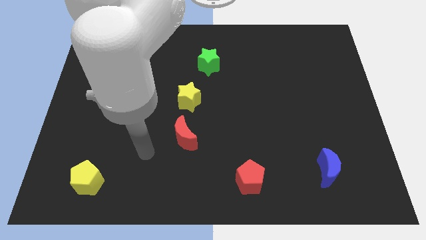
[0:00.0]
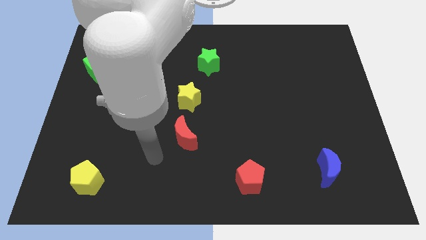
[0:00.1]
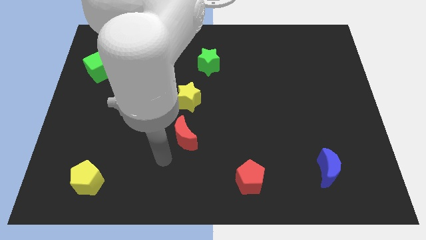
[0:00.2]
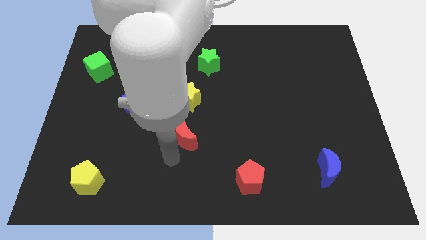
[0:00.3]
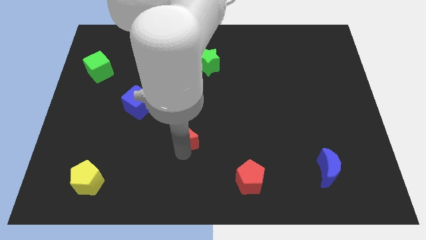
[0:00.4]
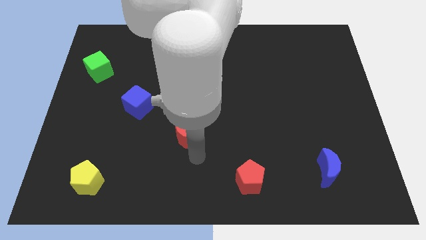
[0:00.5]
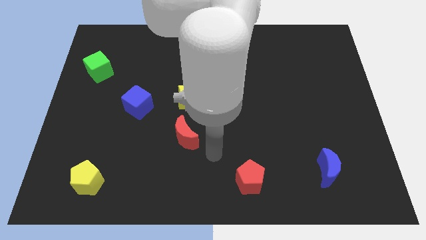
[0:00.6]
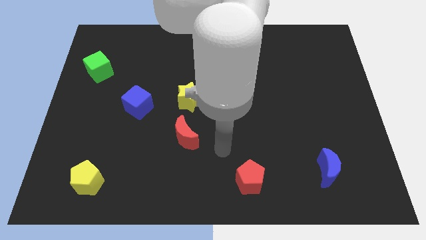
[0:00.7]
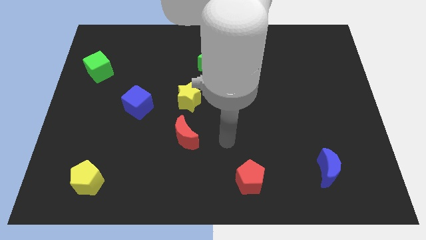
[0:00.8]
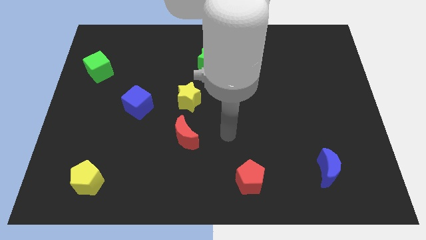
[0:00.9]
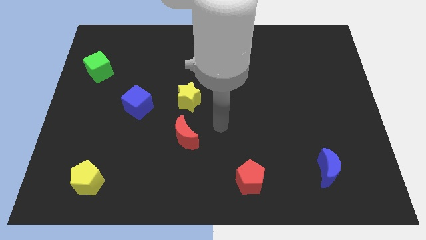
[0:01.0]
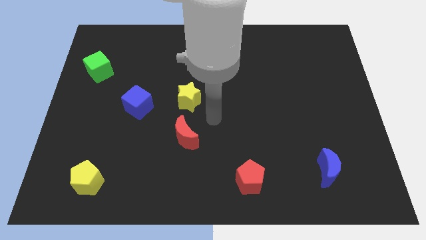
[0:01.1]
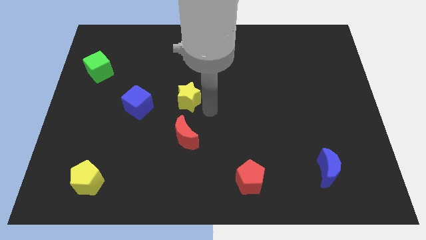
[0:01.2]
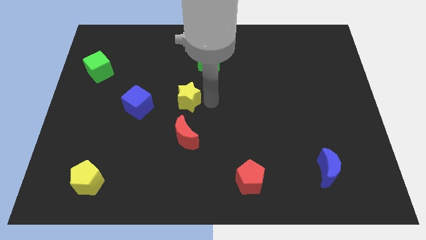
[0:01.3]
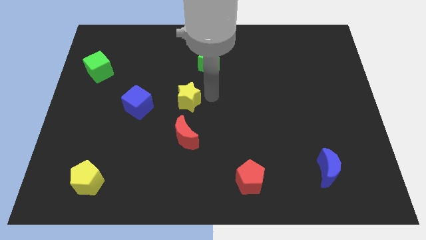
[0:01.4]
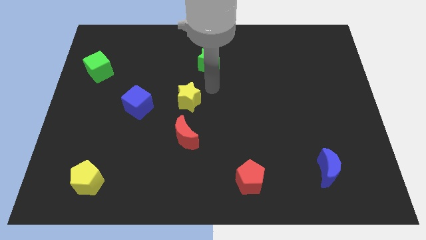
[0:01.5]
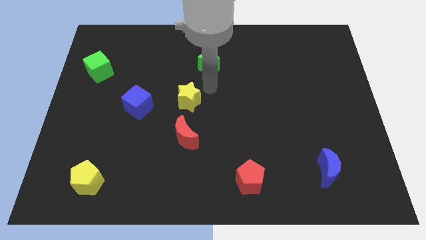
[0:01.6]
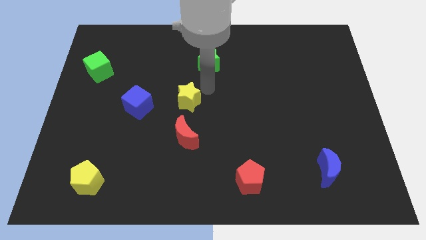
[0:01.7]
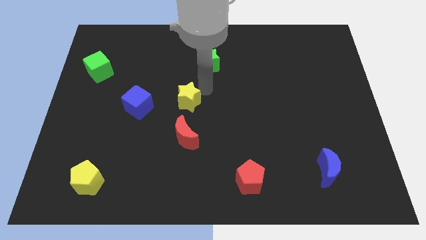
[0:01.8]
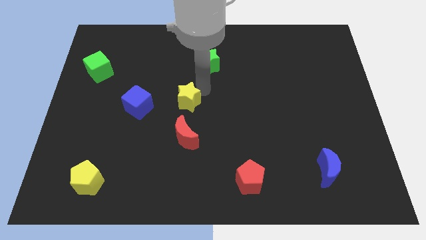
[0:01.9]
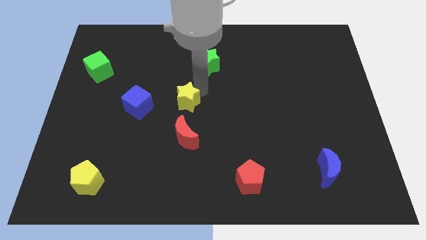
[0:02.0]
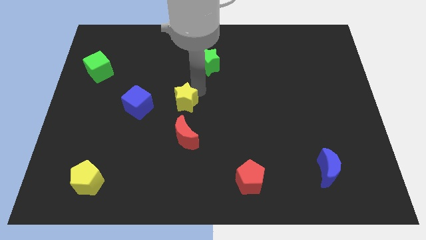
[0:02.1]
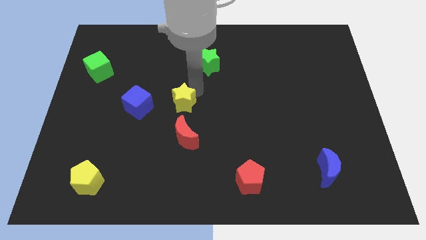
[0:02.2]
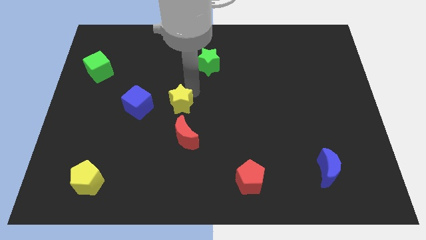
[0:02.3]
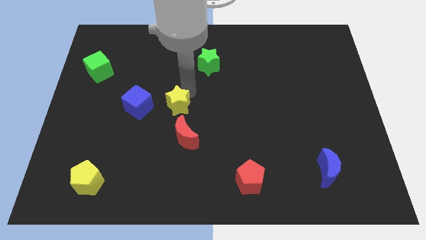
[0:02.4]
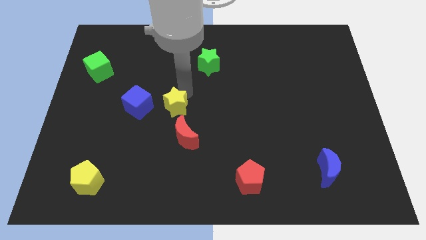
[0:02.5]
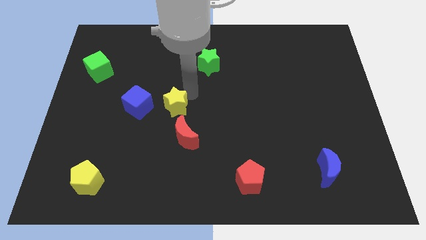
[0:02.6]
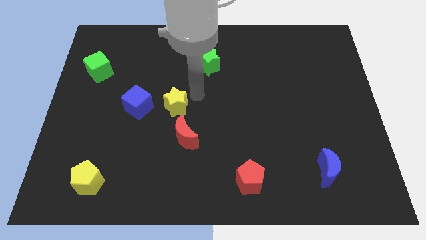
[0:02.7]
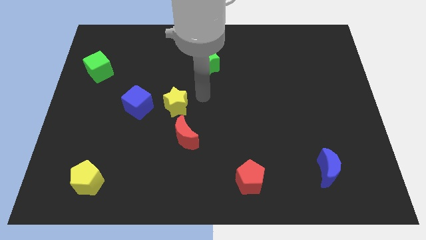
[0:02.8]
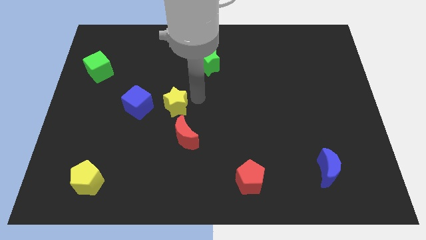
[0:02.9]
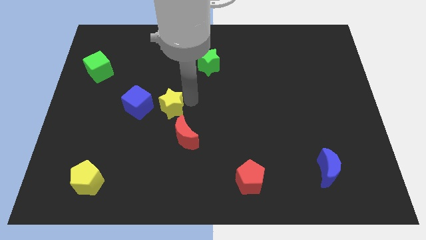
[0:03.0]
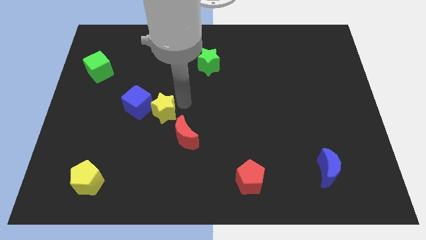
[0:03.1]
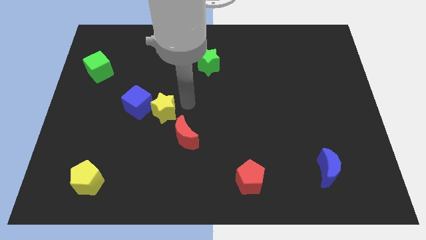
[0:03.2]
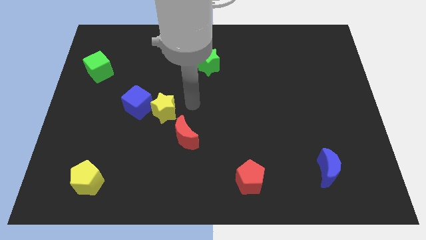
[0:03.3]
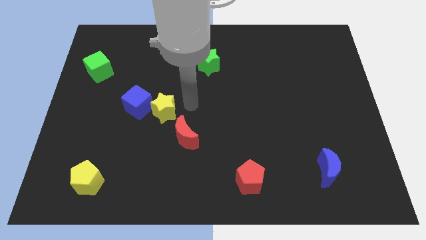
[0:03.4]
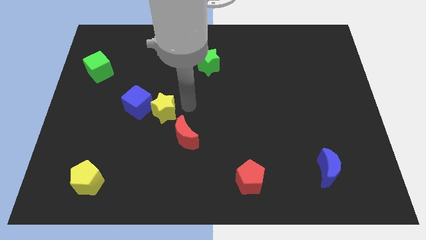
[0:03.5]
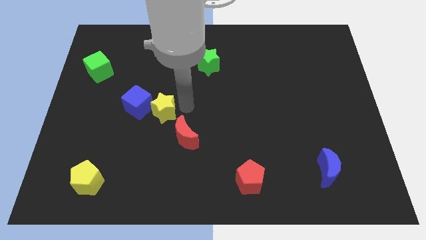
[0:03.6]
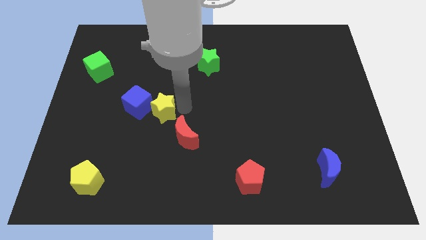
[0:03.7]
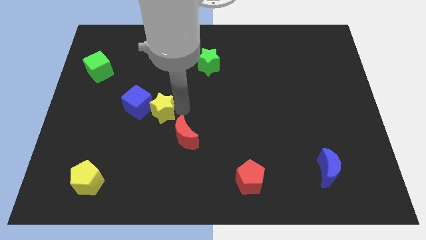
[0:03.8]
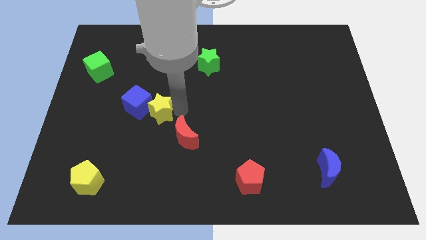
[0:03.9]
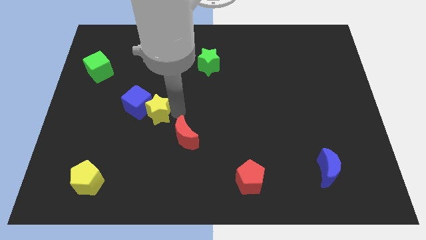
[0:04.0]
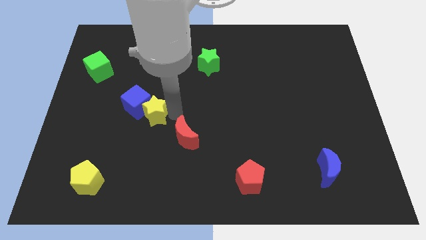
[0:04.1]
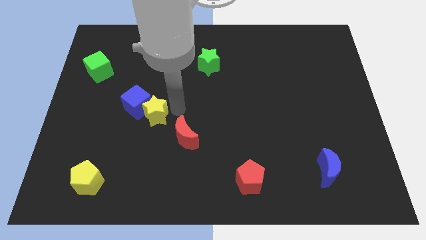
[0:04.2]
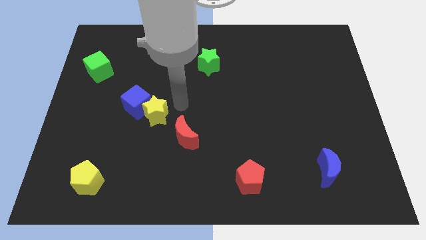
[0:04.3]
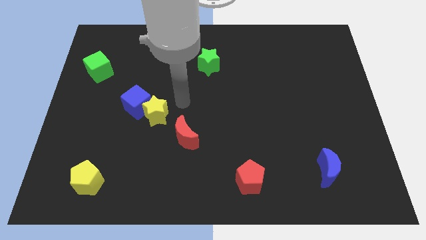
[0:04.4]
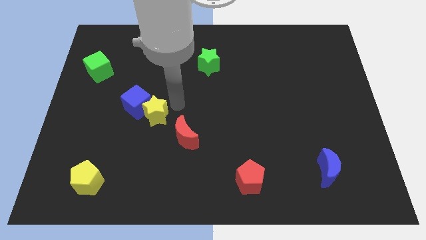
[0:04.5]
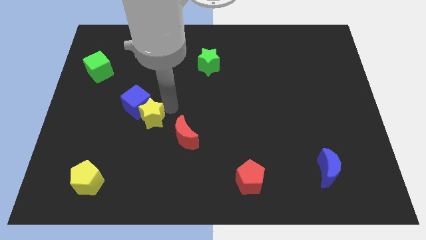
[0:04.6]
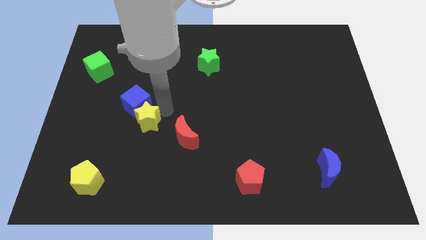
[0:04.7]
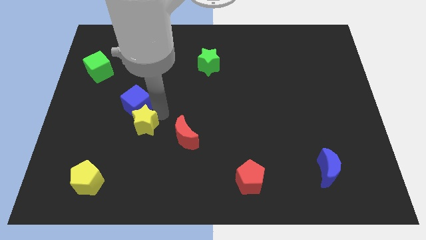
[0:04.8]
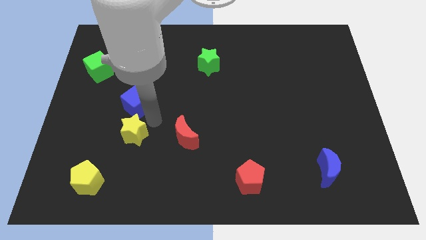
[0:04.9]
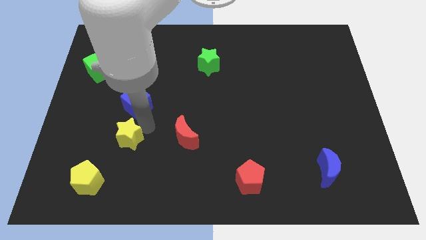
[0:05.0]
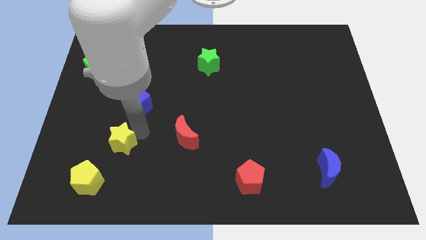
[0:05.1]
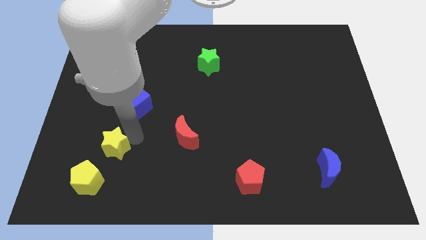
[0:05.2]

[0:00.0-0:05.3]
move the yellow star above the yellow pentagon

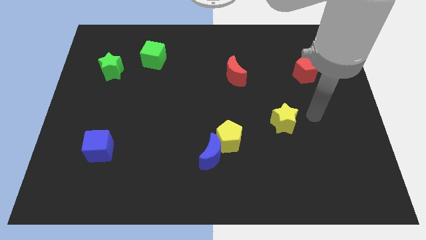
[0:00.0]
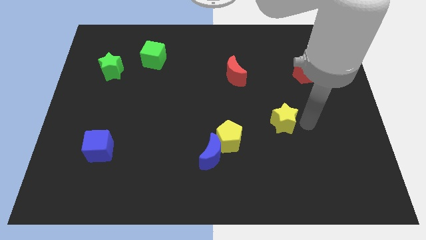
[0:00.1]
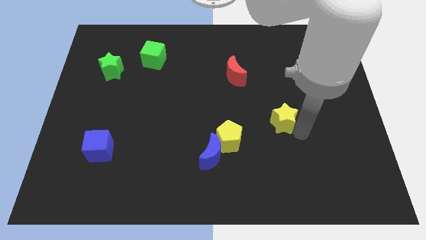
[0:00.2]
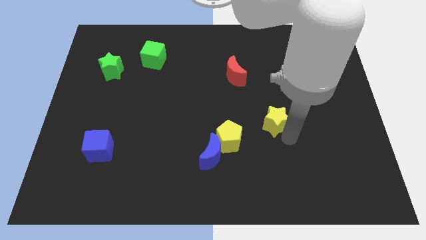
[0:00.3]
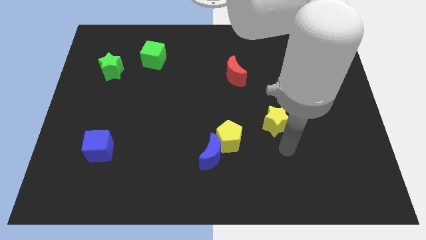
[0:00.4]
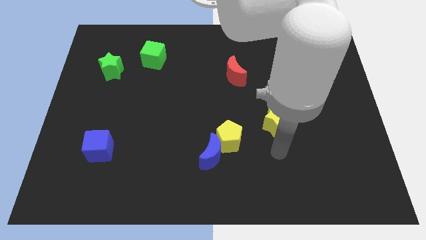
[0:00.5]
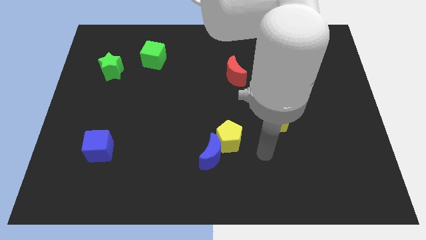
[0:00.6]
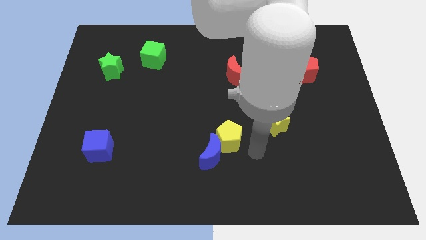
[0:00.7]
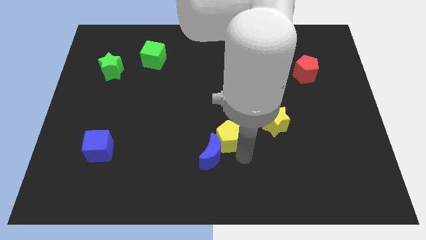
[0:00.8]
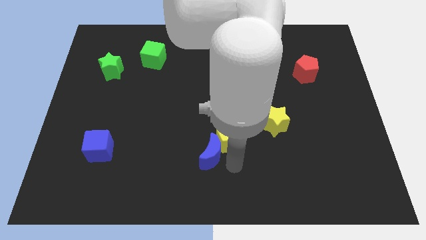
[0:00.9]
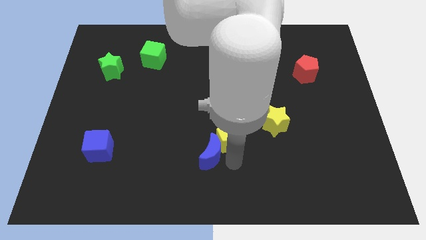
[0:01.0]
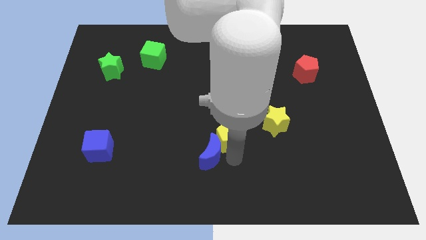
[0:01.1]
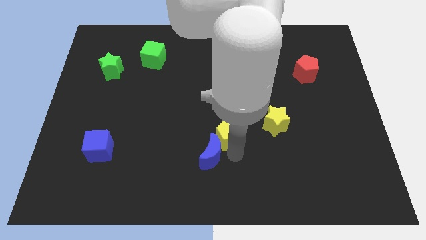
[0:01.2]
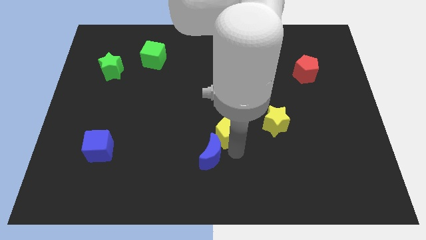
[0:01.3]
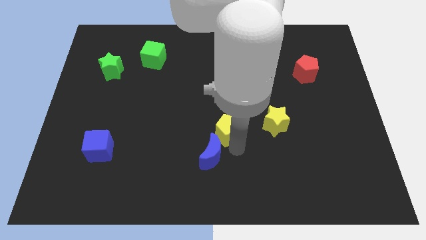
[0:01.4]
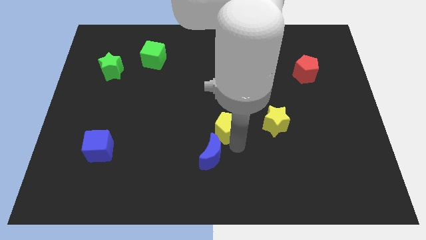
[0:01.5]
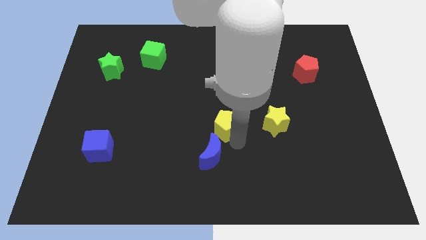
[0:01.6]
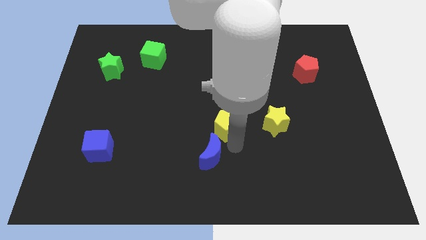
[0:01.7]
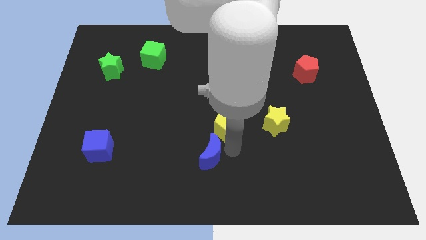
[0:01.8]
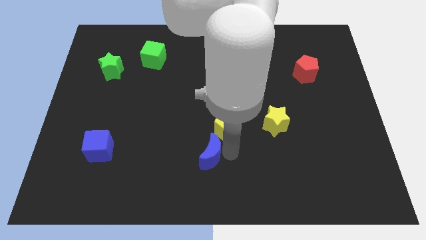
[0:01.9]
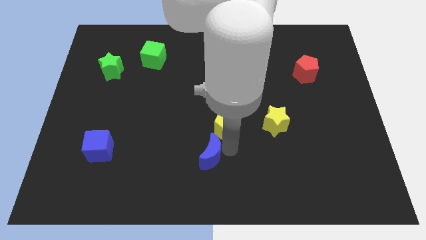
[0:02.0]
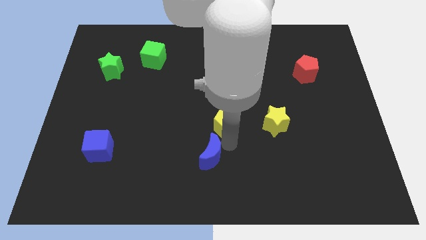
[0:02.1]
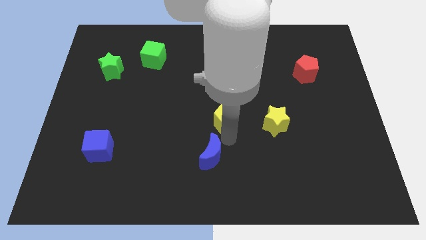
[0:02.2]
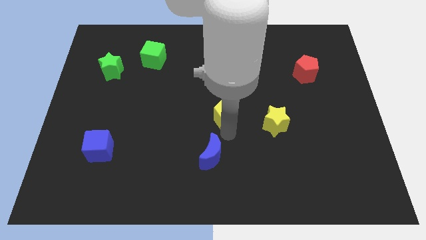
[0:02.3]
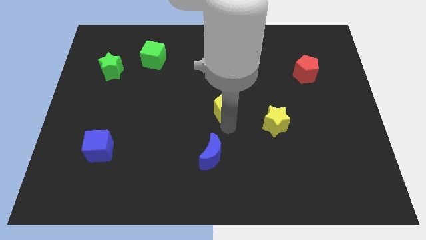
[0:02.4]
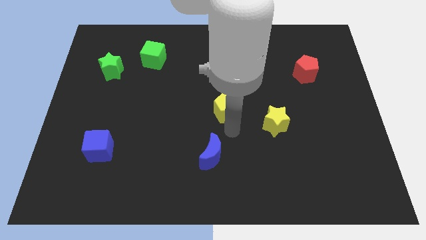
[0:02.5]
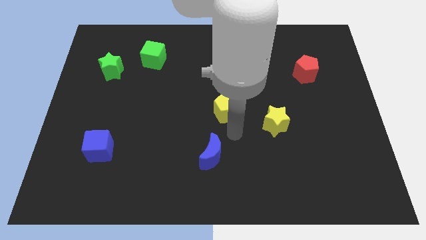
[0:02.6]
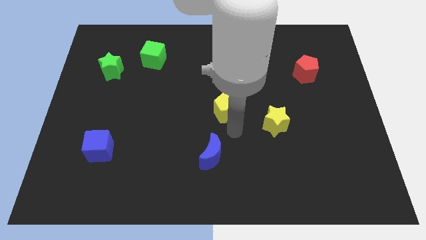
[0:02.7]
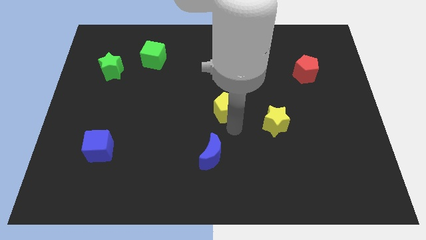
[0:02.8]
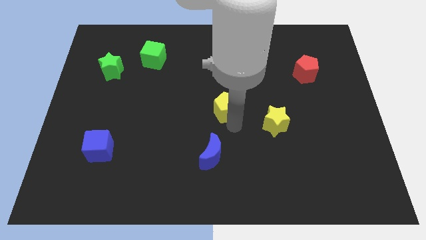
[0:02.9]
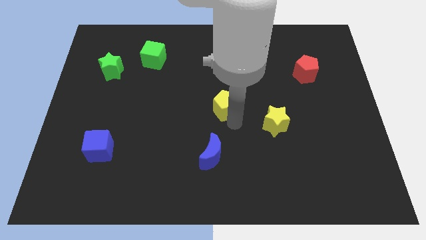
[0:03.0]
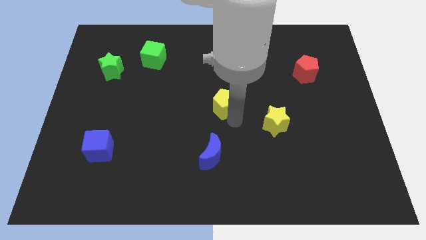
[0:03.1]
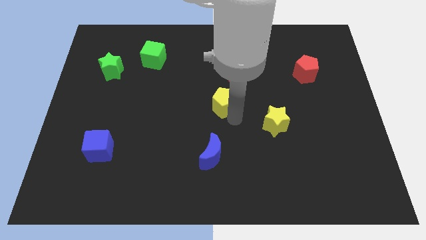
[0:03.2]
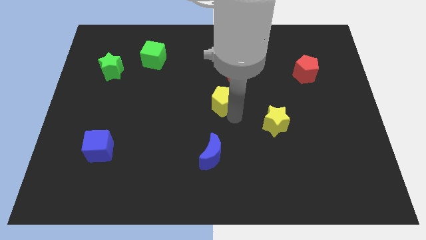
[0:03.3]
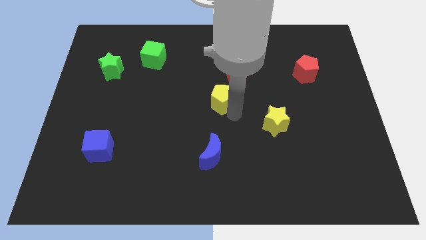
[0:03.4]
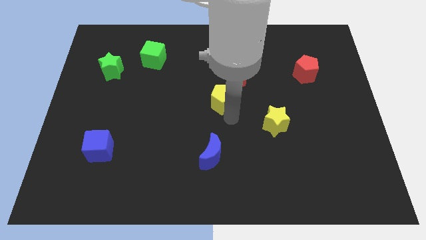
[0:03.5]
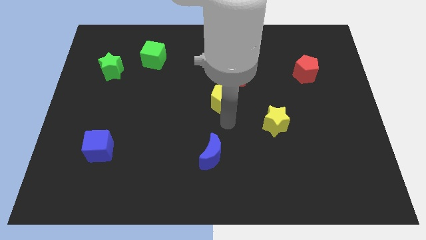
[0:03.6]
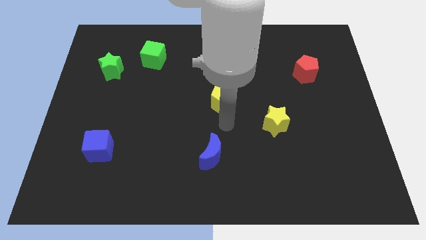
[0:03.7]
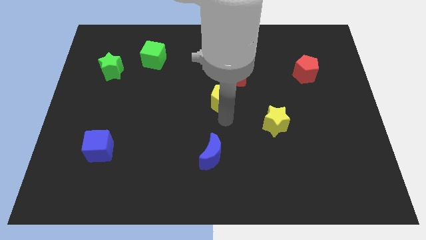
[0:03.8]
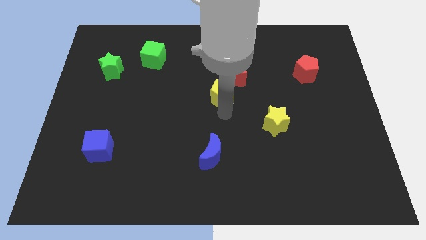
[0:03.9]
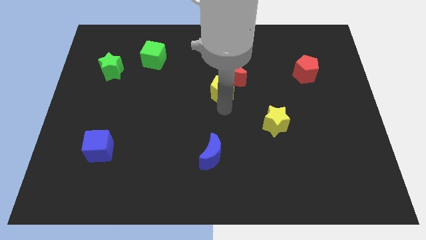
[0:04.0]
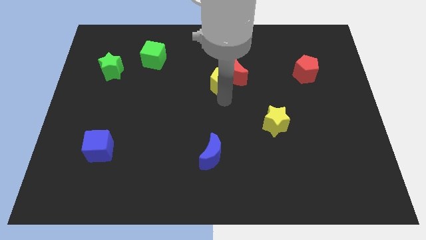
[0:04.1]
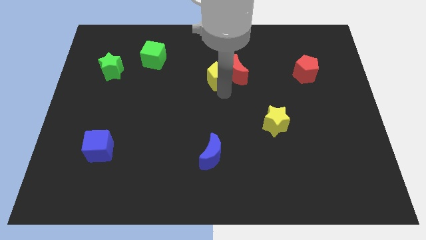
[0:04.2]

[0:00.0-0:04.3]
push the yellow pentagon diagonally up and to the left of the red moon
